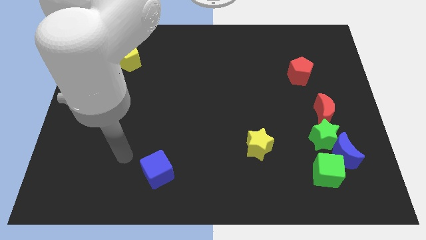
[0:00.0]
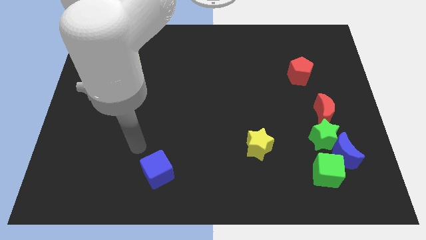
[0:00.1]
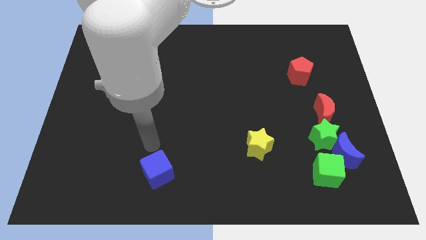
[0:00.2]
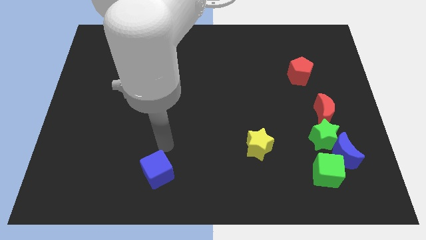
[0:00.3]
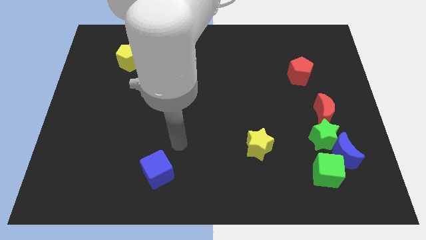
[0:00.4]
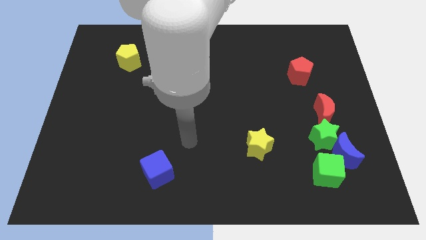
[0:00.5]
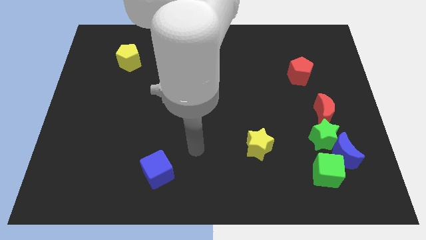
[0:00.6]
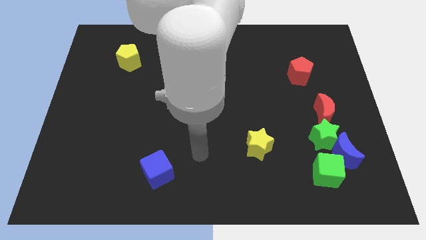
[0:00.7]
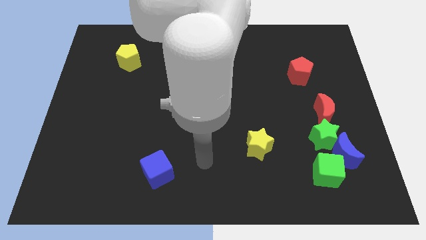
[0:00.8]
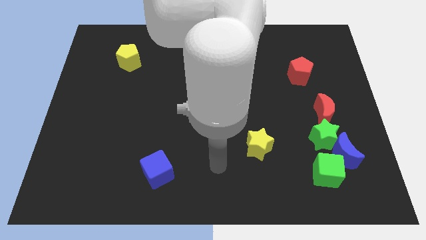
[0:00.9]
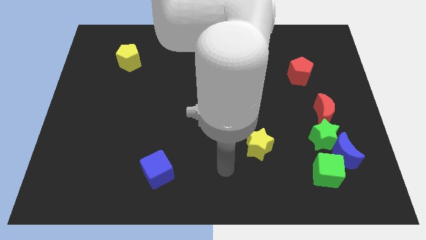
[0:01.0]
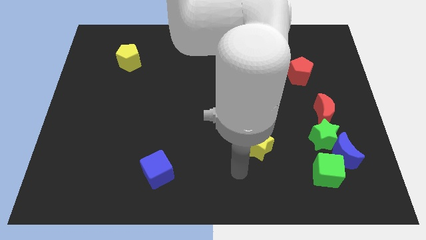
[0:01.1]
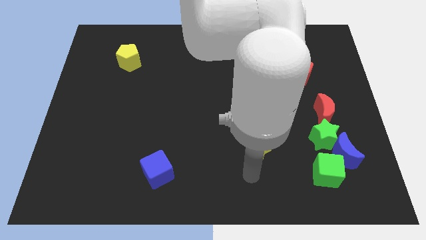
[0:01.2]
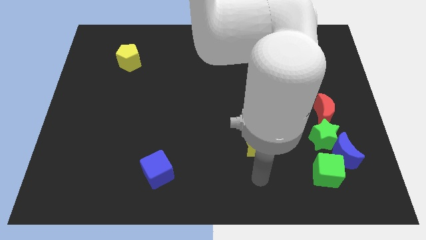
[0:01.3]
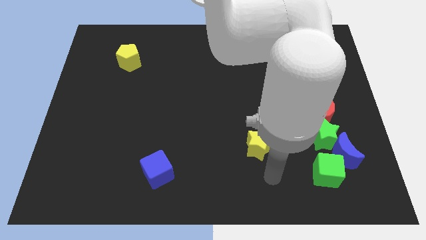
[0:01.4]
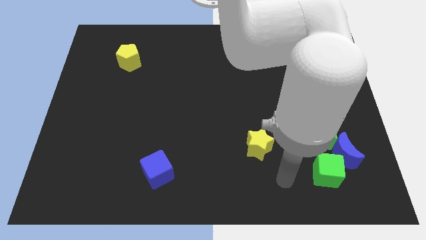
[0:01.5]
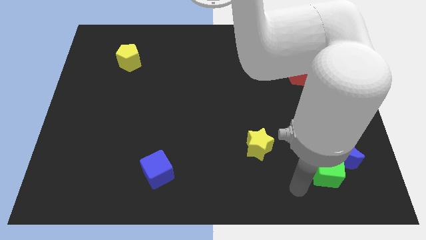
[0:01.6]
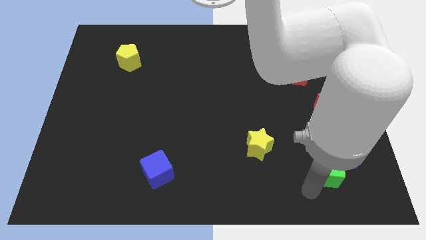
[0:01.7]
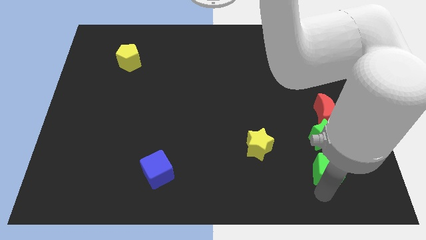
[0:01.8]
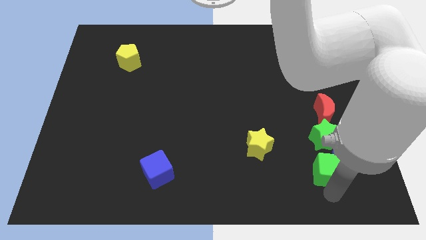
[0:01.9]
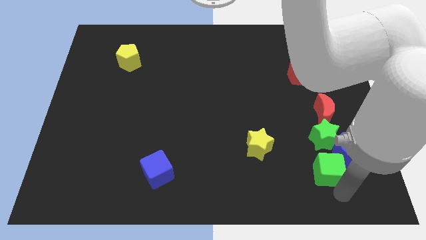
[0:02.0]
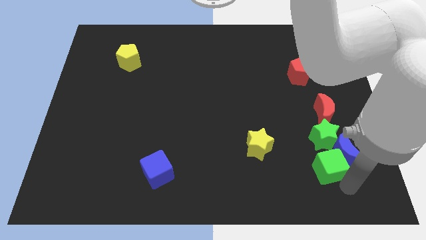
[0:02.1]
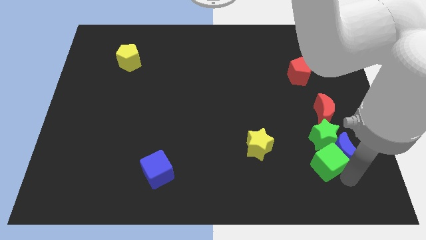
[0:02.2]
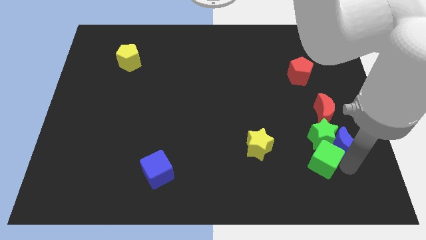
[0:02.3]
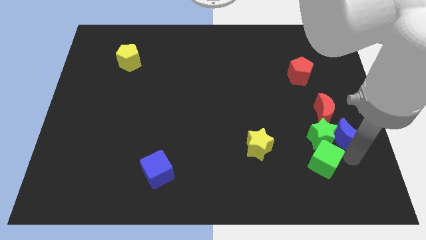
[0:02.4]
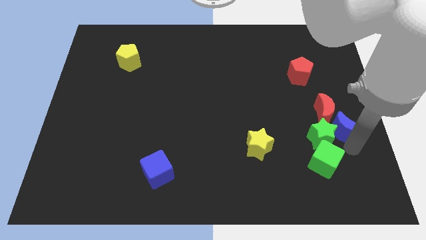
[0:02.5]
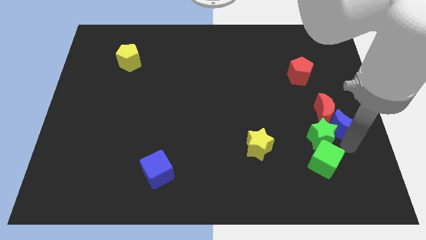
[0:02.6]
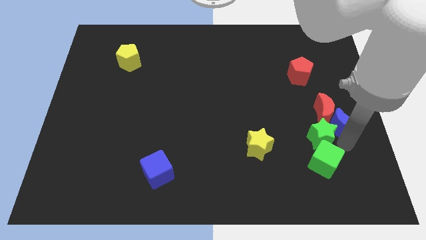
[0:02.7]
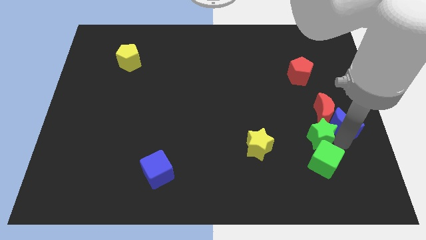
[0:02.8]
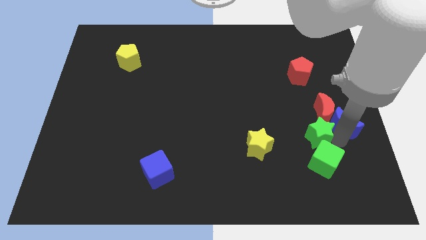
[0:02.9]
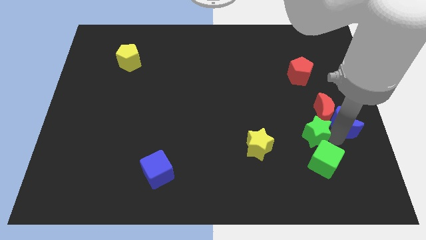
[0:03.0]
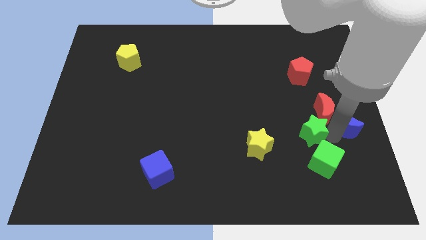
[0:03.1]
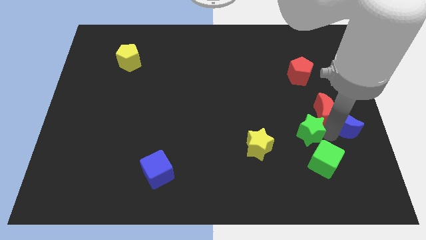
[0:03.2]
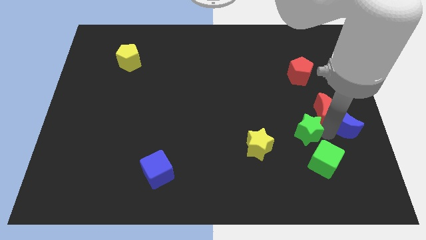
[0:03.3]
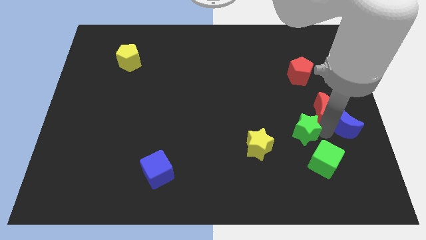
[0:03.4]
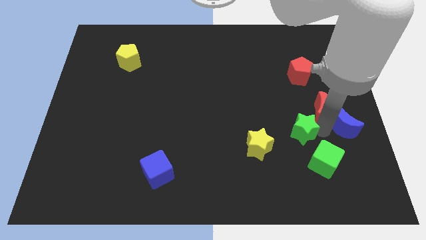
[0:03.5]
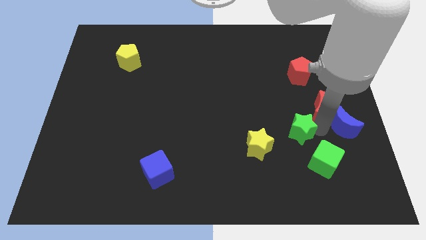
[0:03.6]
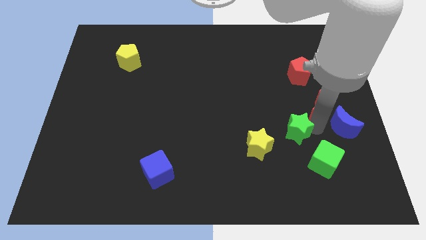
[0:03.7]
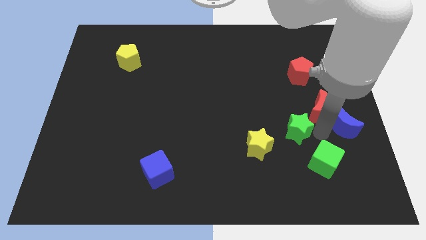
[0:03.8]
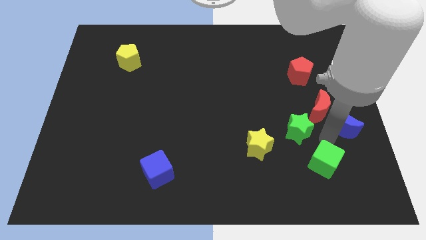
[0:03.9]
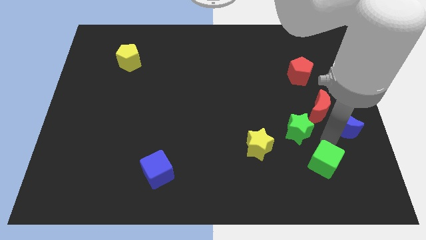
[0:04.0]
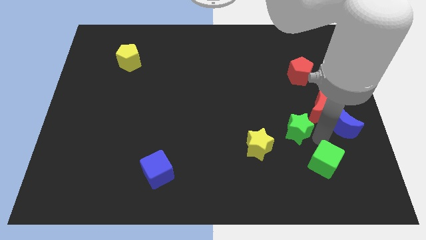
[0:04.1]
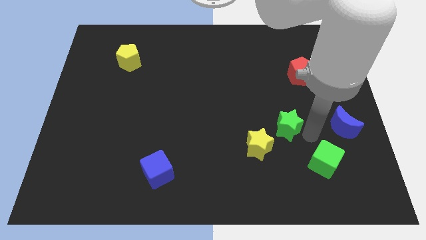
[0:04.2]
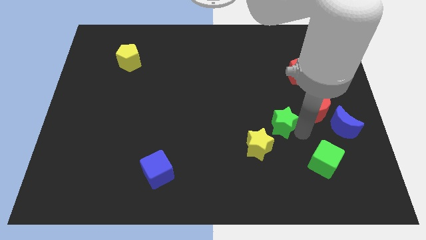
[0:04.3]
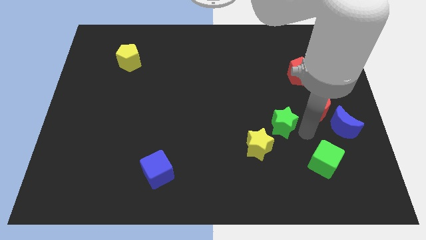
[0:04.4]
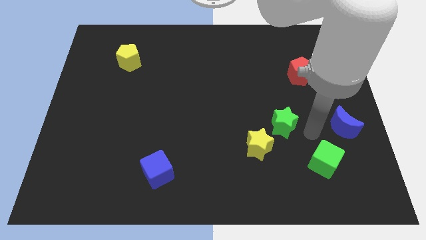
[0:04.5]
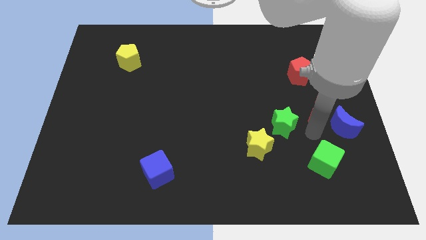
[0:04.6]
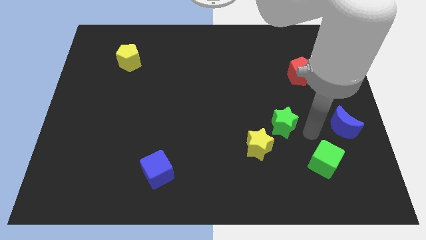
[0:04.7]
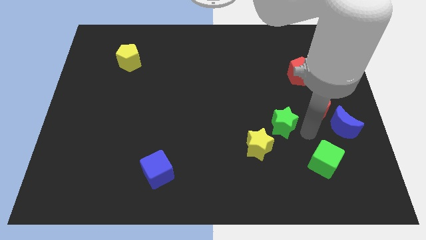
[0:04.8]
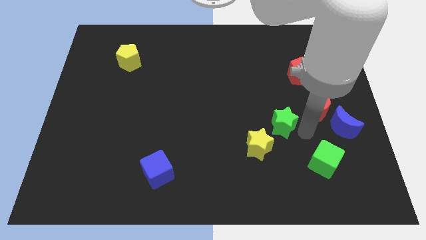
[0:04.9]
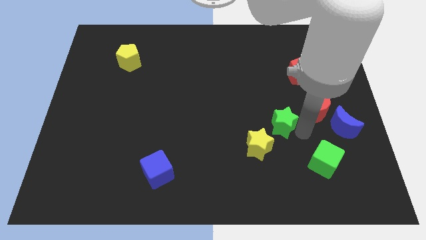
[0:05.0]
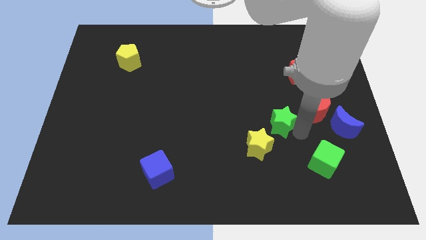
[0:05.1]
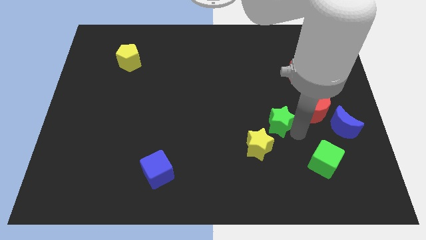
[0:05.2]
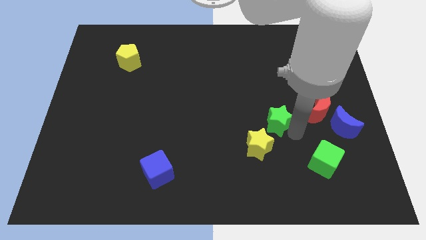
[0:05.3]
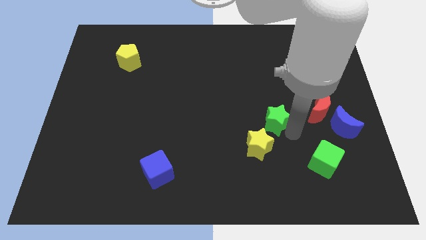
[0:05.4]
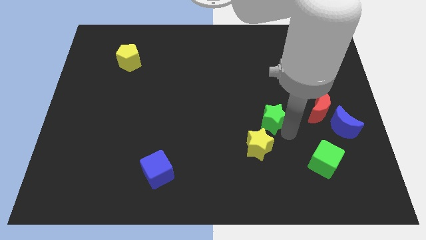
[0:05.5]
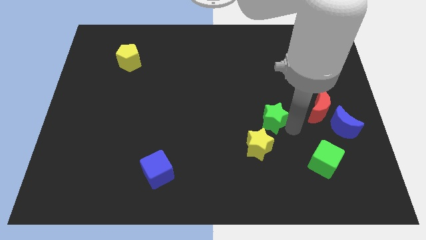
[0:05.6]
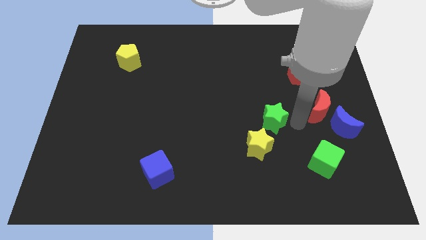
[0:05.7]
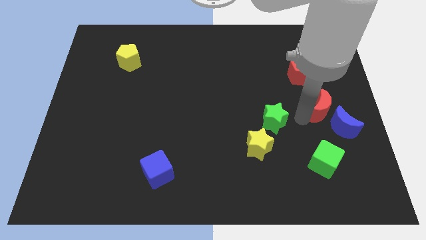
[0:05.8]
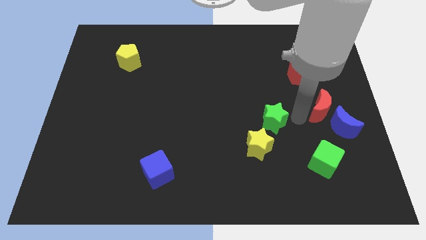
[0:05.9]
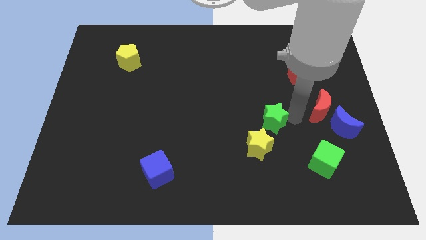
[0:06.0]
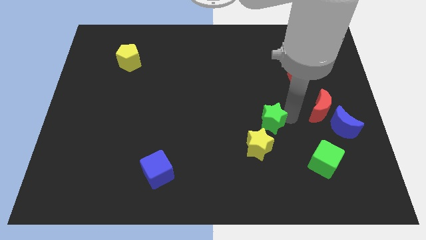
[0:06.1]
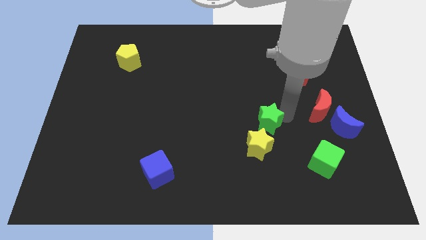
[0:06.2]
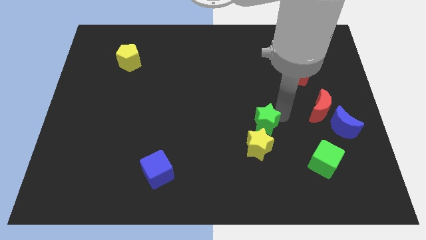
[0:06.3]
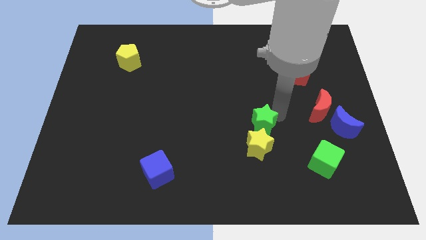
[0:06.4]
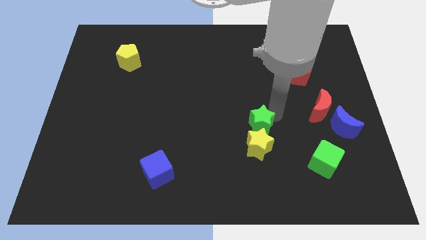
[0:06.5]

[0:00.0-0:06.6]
slide the green star to the top left of the yellow star
